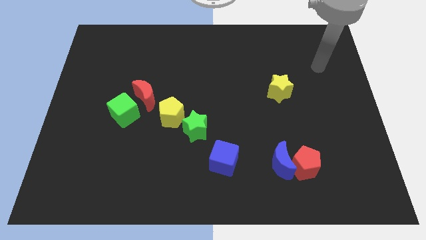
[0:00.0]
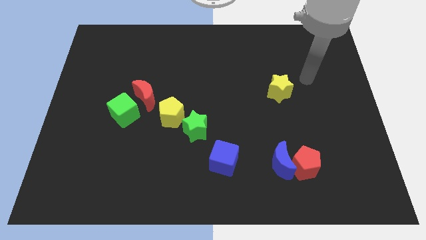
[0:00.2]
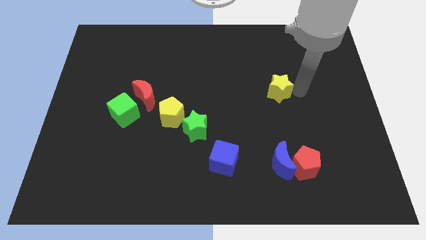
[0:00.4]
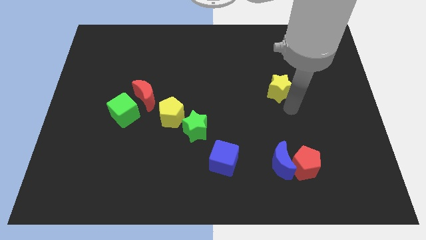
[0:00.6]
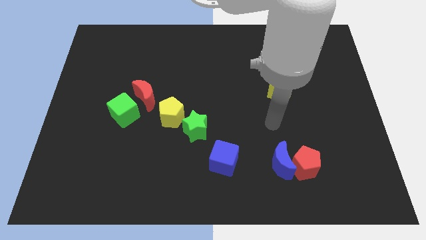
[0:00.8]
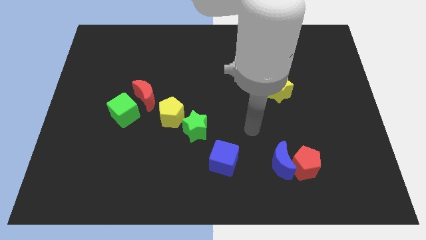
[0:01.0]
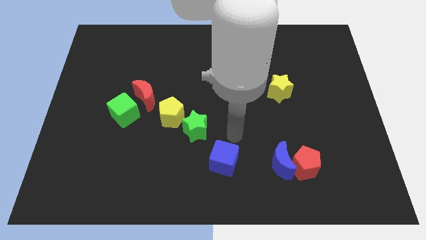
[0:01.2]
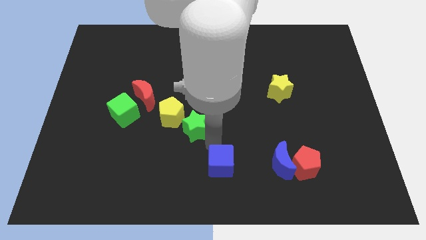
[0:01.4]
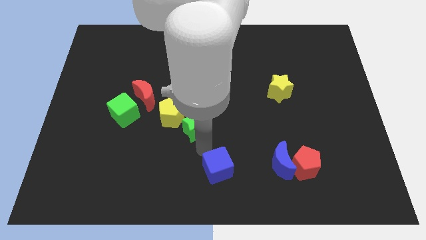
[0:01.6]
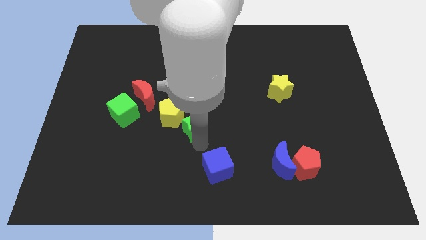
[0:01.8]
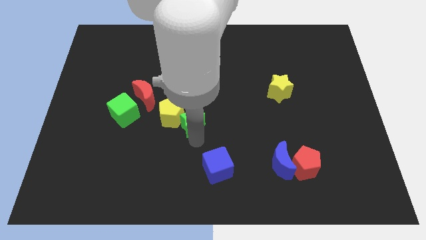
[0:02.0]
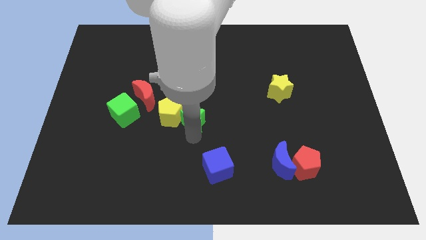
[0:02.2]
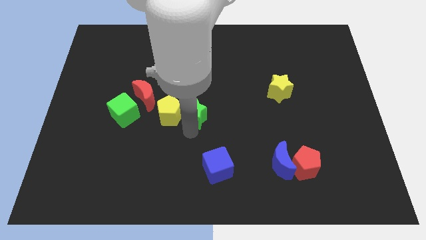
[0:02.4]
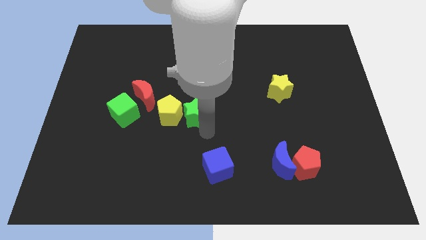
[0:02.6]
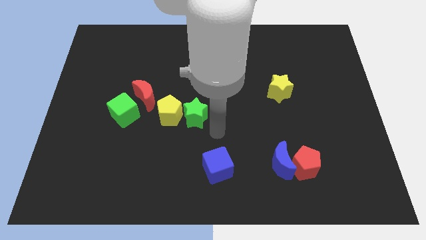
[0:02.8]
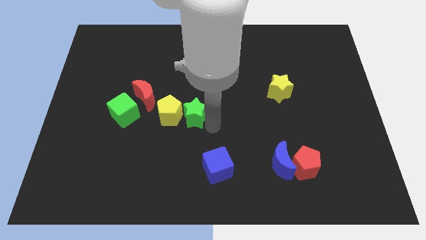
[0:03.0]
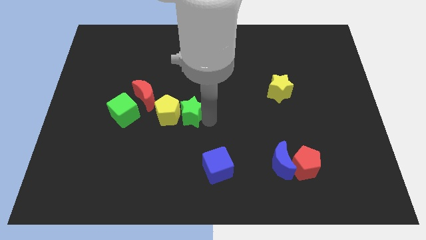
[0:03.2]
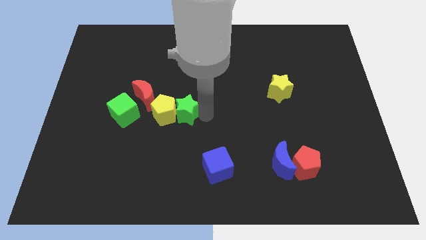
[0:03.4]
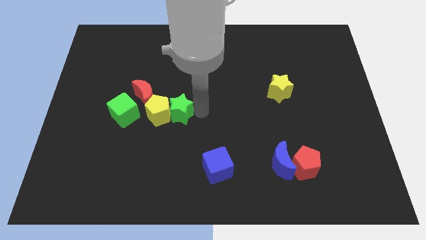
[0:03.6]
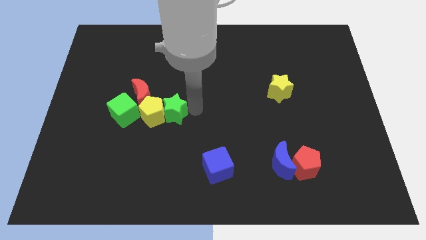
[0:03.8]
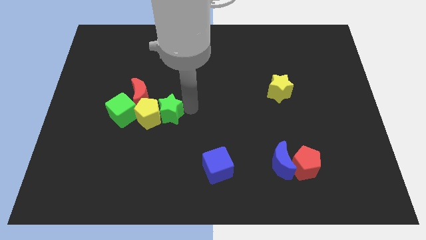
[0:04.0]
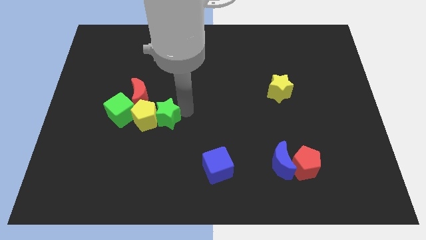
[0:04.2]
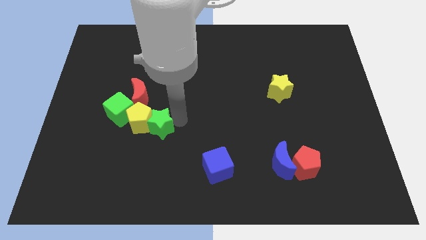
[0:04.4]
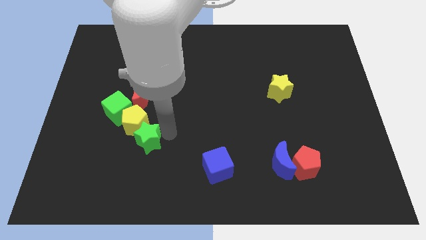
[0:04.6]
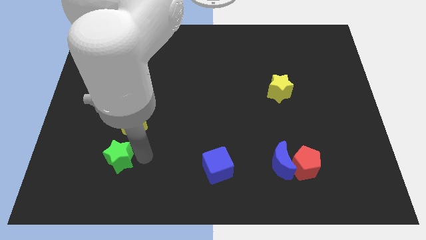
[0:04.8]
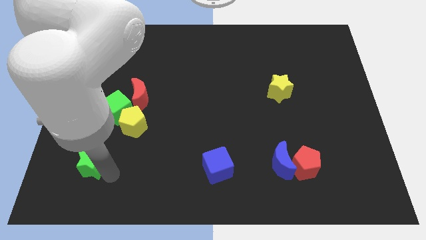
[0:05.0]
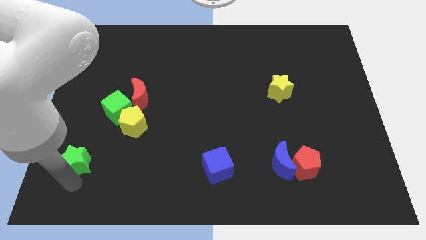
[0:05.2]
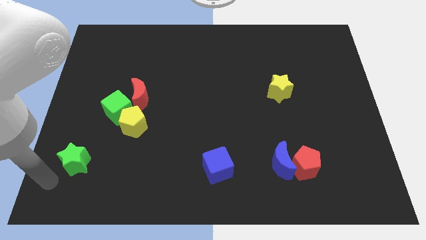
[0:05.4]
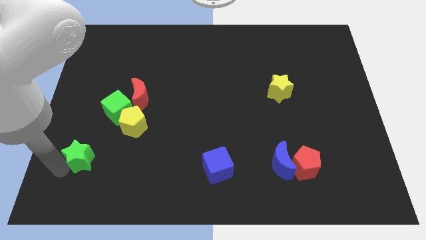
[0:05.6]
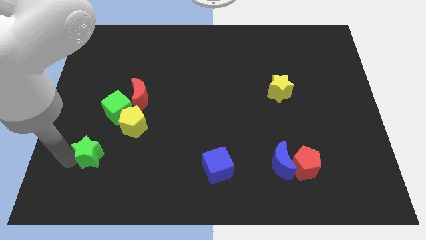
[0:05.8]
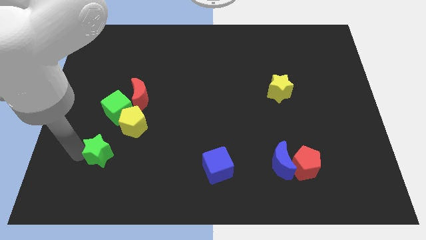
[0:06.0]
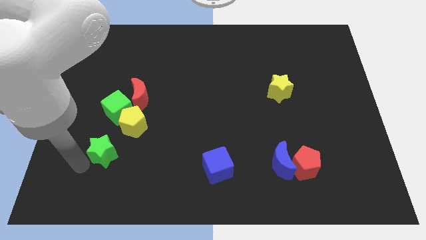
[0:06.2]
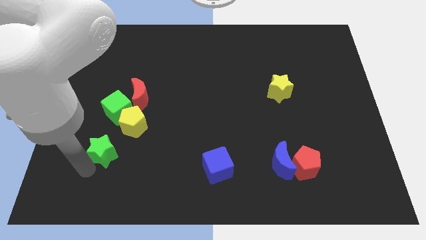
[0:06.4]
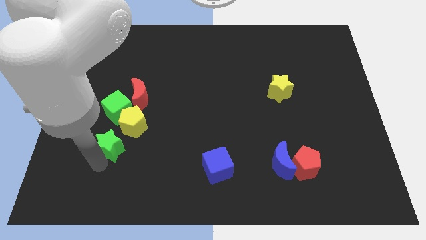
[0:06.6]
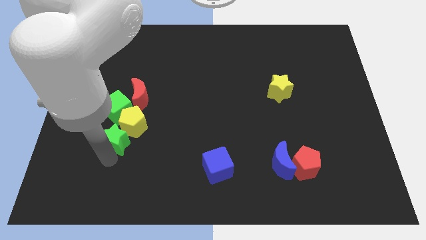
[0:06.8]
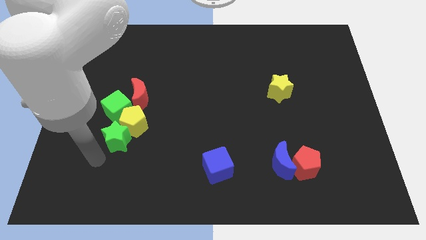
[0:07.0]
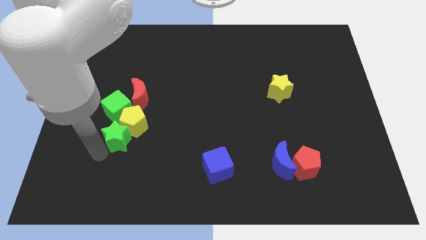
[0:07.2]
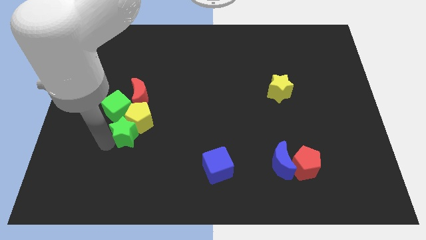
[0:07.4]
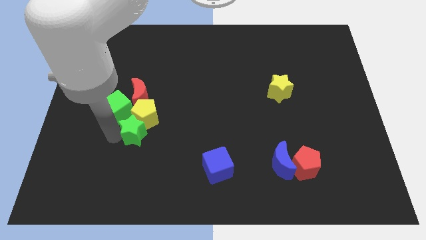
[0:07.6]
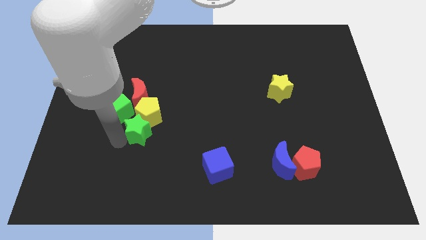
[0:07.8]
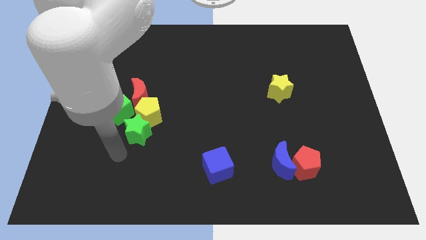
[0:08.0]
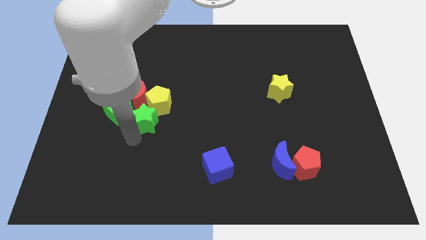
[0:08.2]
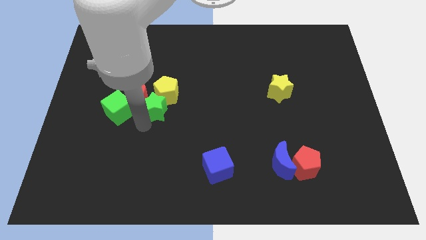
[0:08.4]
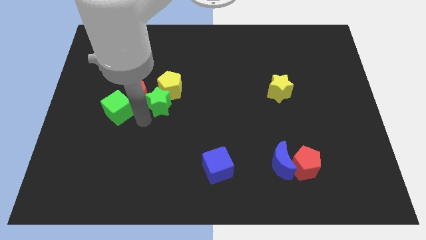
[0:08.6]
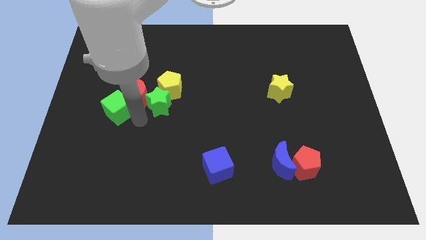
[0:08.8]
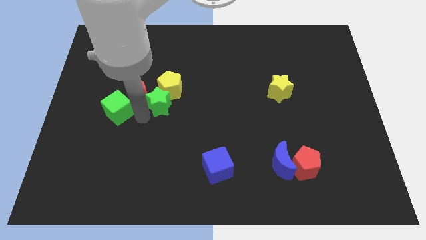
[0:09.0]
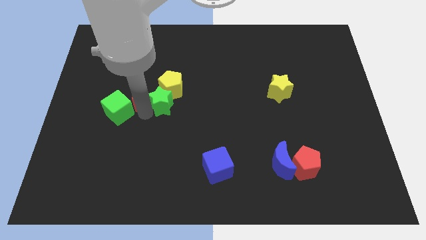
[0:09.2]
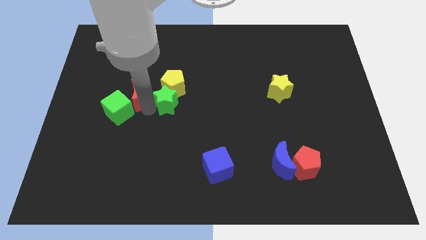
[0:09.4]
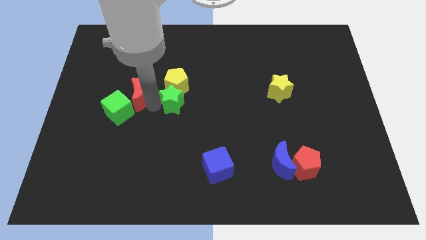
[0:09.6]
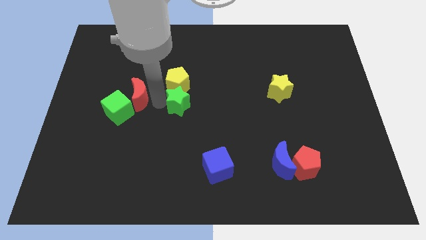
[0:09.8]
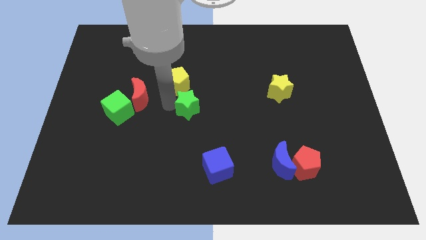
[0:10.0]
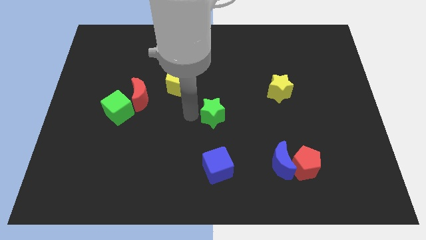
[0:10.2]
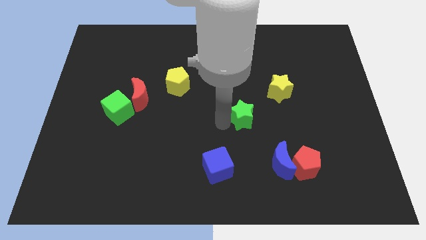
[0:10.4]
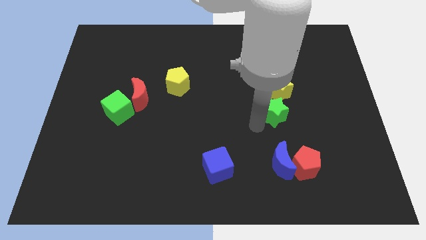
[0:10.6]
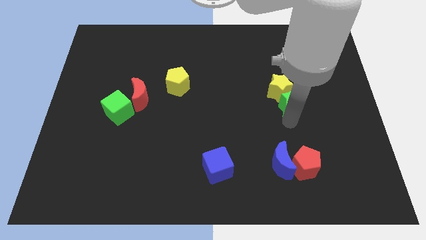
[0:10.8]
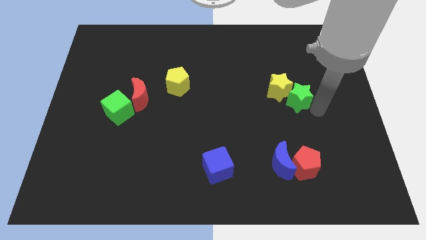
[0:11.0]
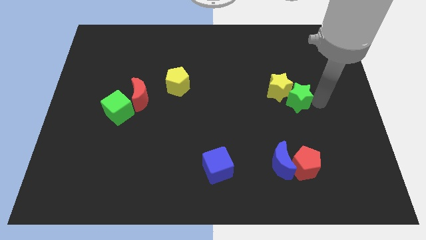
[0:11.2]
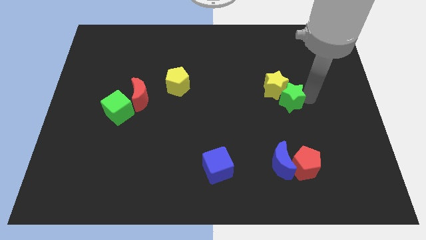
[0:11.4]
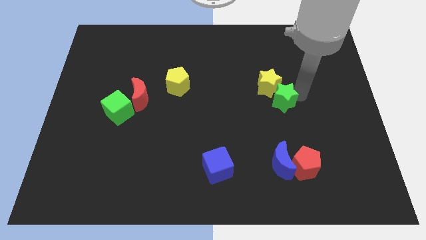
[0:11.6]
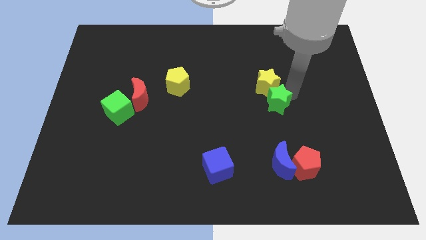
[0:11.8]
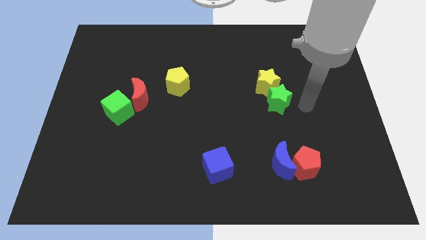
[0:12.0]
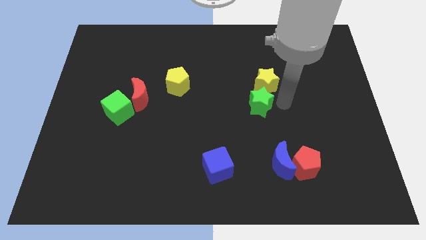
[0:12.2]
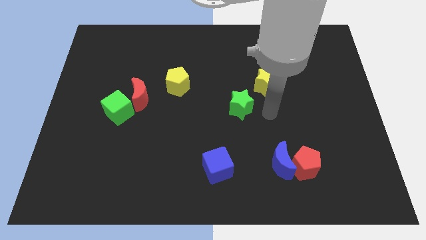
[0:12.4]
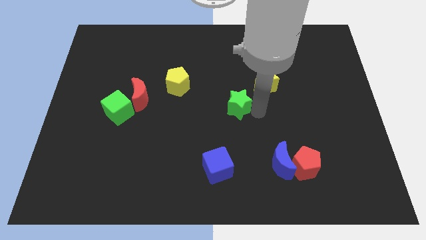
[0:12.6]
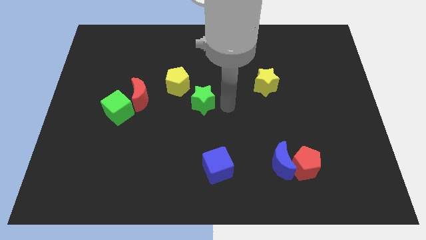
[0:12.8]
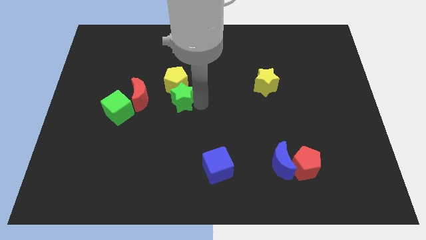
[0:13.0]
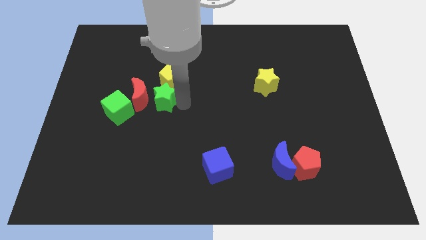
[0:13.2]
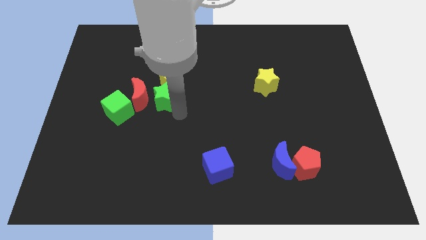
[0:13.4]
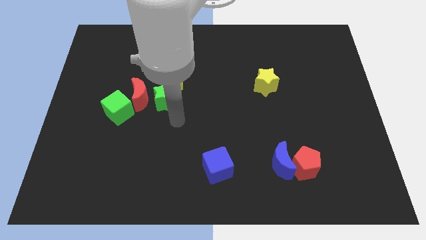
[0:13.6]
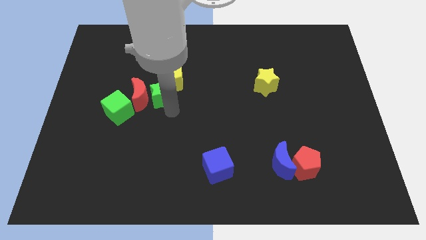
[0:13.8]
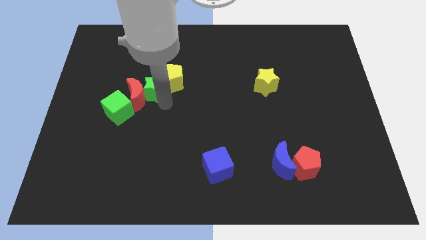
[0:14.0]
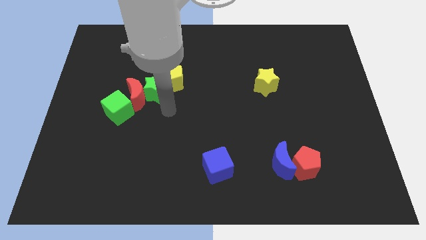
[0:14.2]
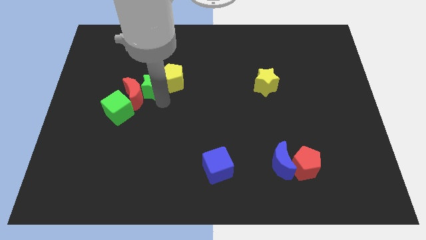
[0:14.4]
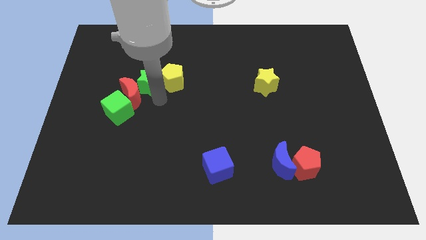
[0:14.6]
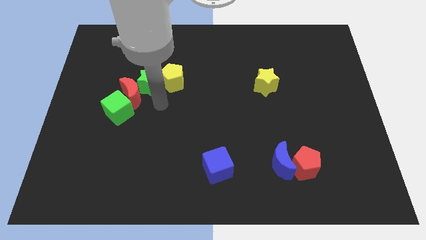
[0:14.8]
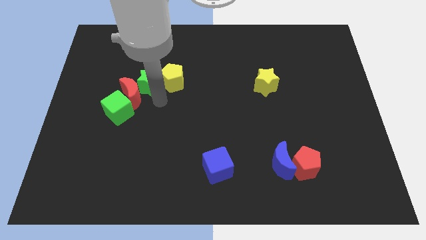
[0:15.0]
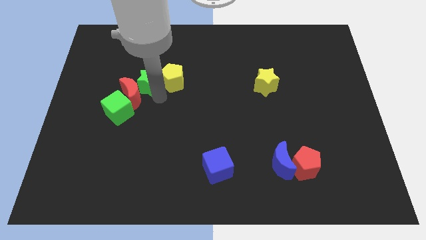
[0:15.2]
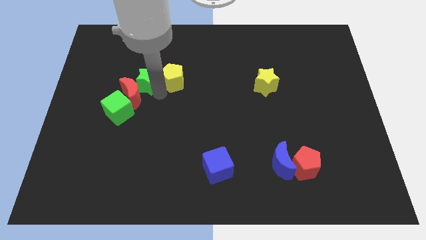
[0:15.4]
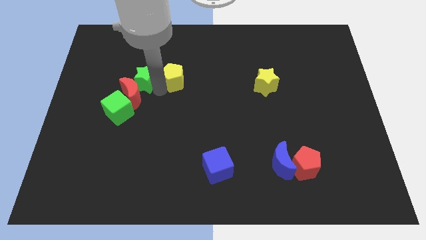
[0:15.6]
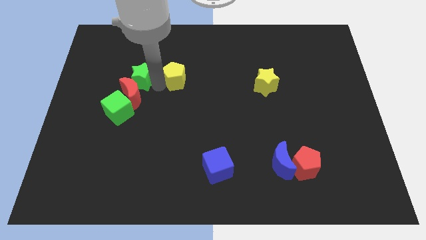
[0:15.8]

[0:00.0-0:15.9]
move the green star up and then to the left
